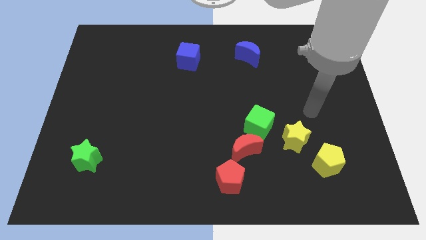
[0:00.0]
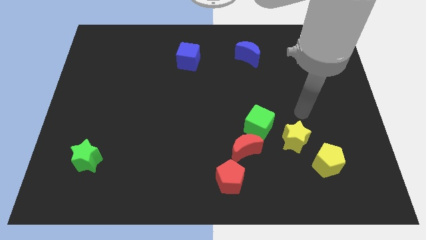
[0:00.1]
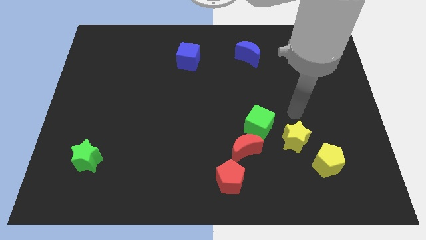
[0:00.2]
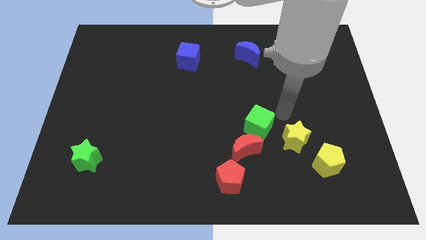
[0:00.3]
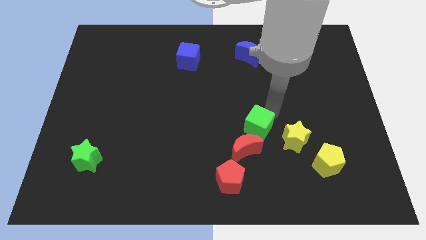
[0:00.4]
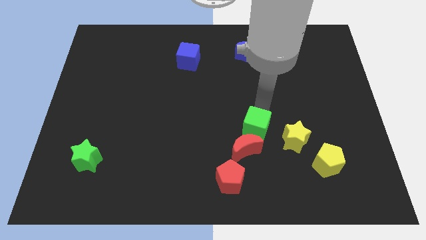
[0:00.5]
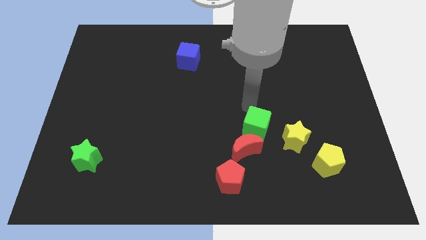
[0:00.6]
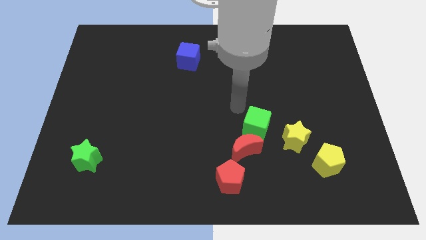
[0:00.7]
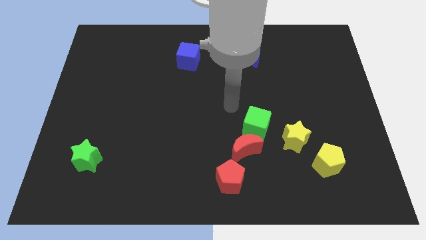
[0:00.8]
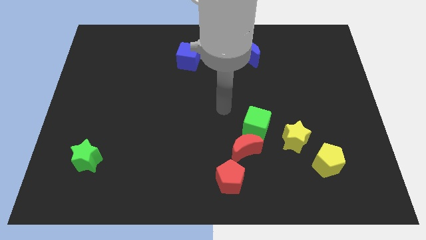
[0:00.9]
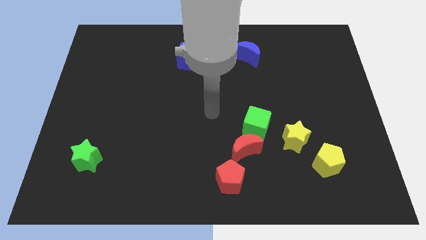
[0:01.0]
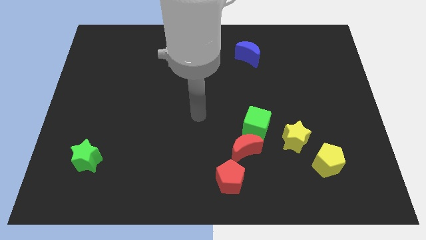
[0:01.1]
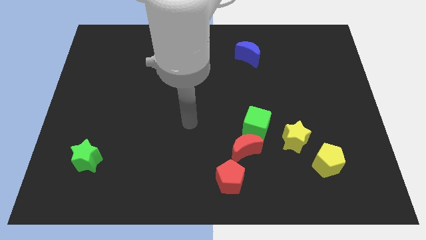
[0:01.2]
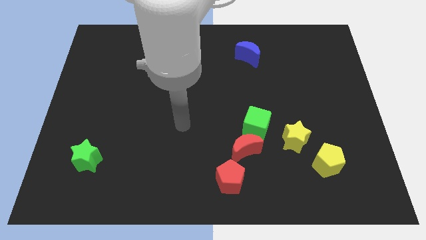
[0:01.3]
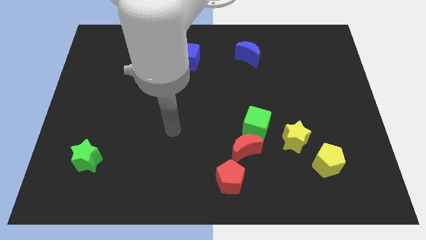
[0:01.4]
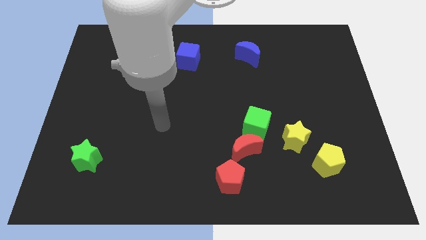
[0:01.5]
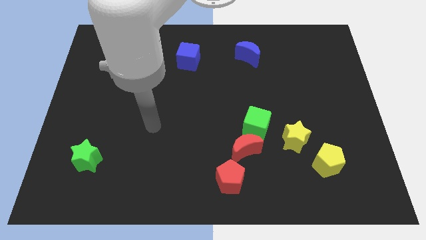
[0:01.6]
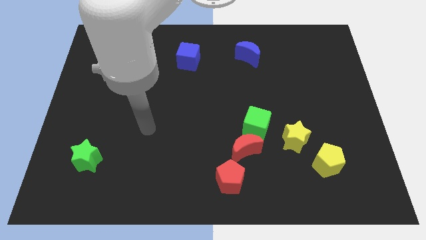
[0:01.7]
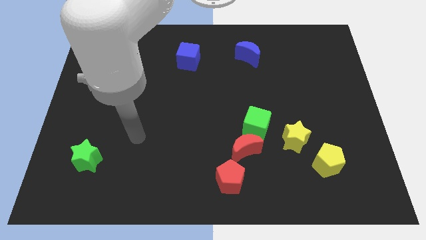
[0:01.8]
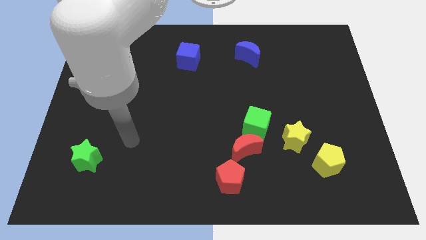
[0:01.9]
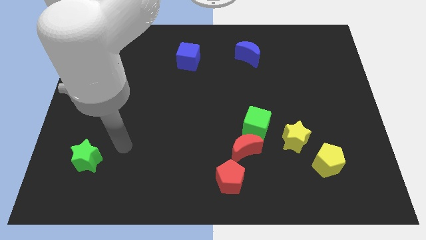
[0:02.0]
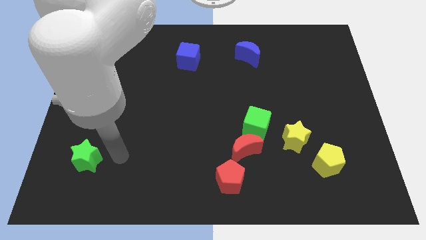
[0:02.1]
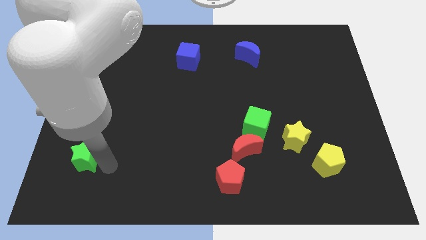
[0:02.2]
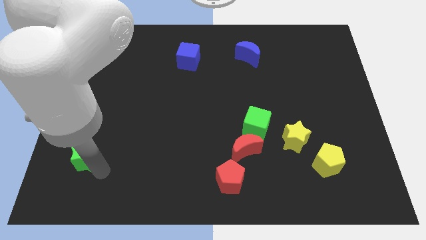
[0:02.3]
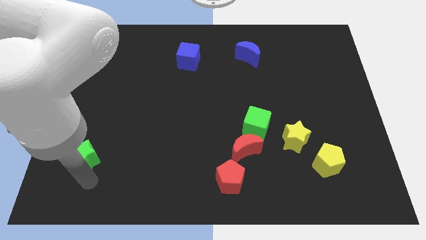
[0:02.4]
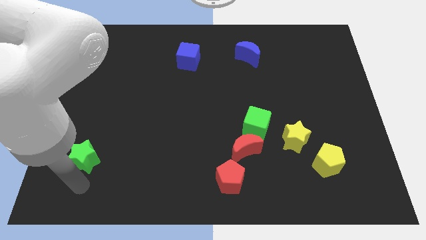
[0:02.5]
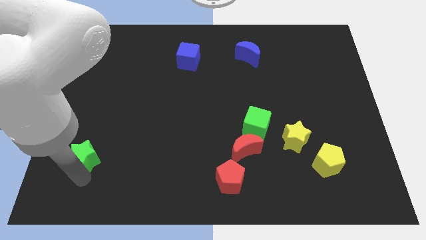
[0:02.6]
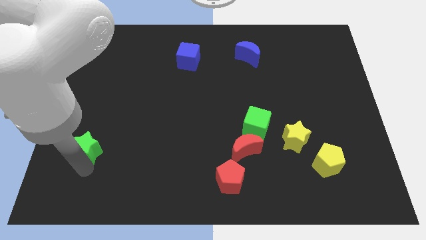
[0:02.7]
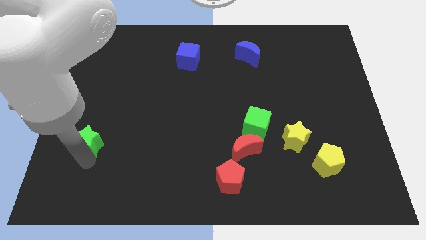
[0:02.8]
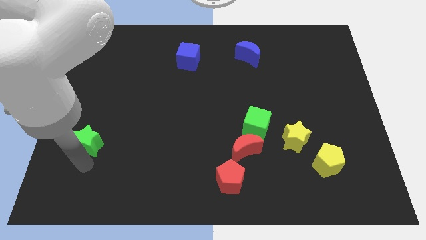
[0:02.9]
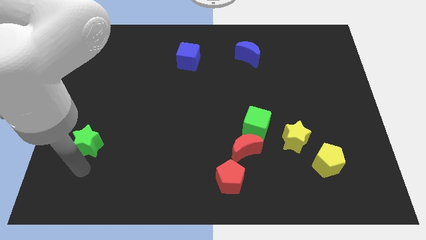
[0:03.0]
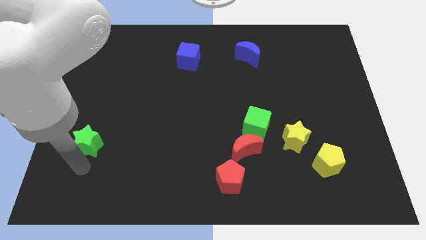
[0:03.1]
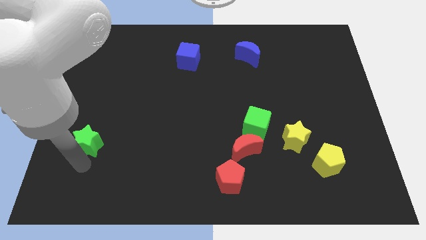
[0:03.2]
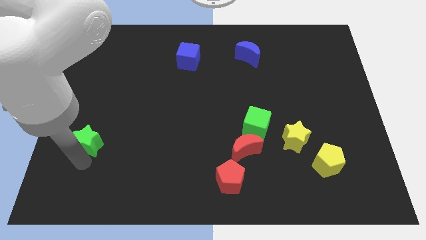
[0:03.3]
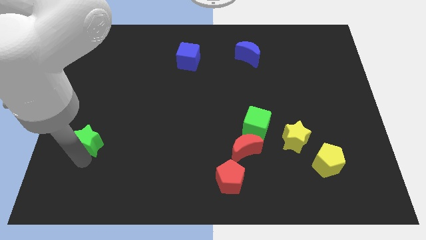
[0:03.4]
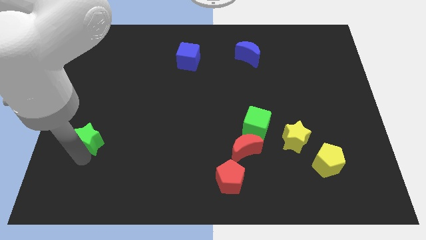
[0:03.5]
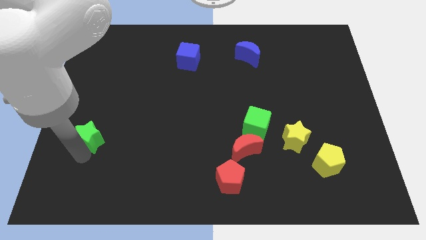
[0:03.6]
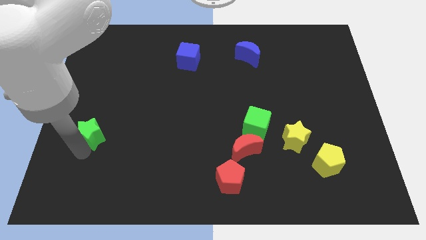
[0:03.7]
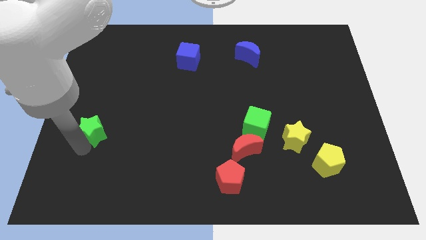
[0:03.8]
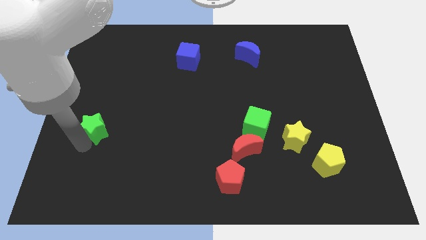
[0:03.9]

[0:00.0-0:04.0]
slide the green star up a bit

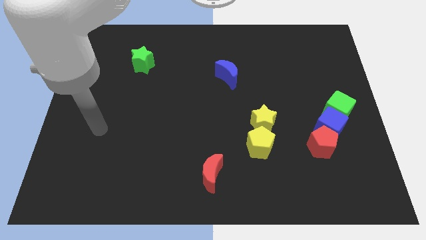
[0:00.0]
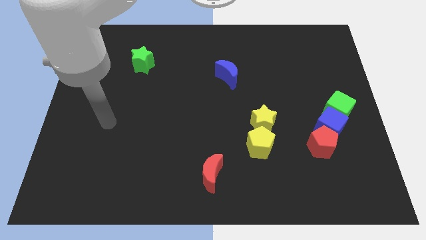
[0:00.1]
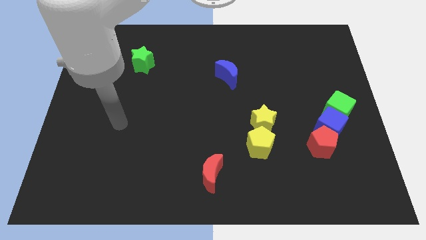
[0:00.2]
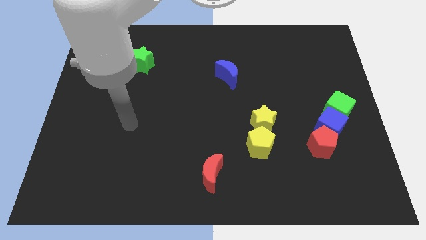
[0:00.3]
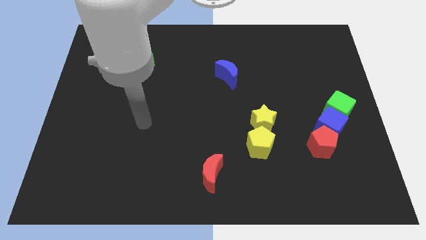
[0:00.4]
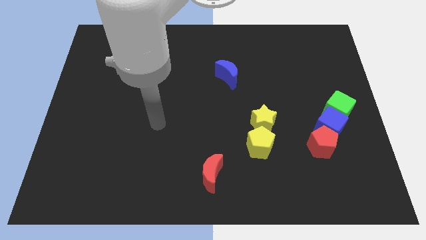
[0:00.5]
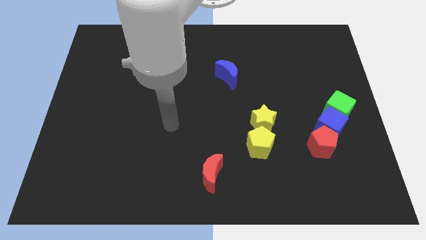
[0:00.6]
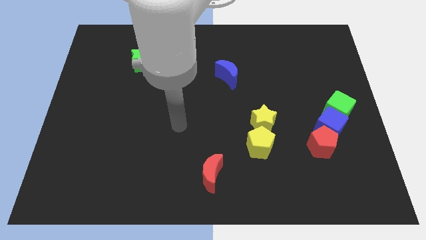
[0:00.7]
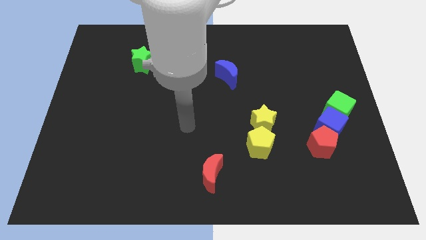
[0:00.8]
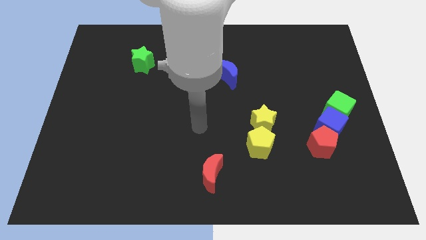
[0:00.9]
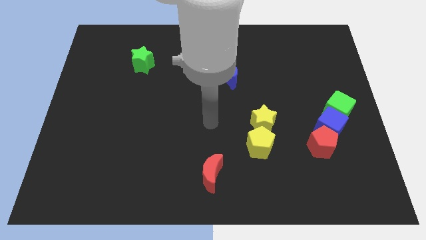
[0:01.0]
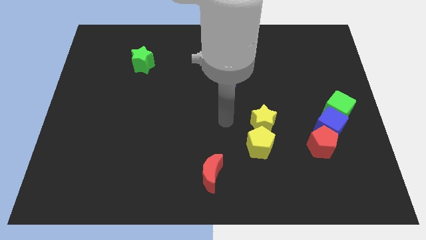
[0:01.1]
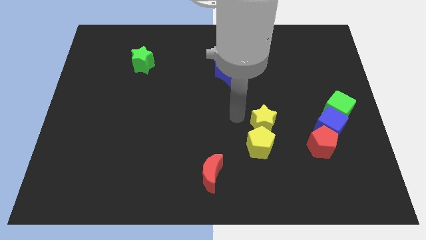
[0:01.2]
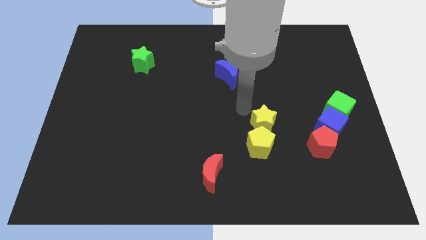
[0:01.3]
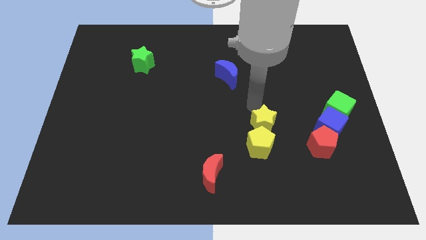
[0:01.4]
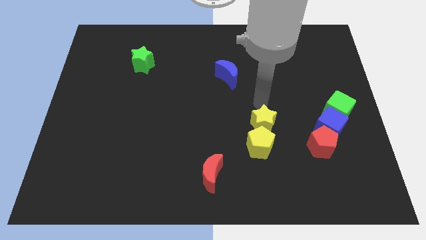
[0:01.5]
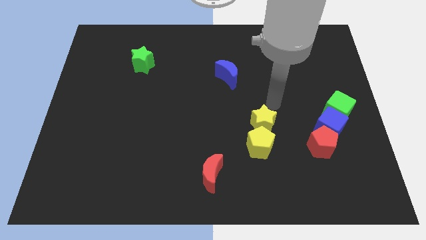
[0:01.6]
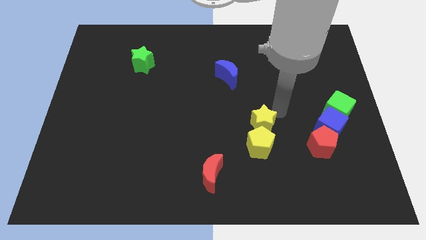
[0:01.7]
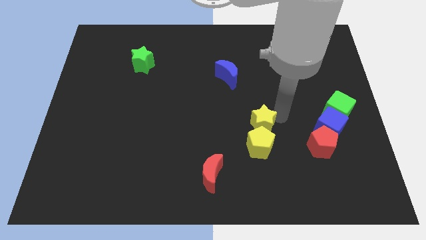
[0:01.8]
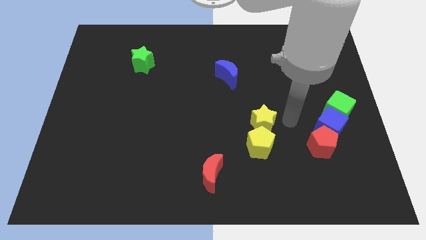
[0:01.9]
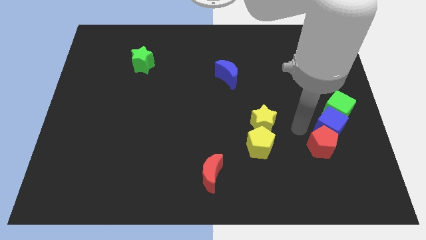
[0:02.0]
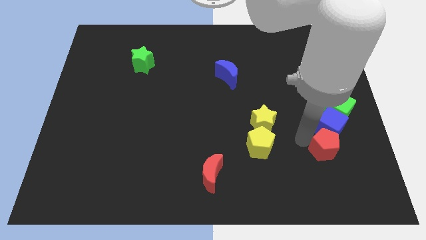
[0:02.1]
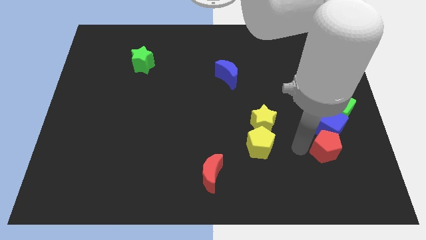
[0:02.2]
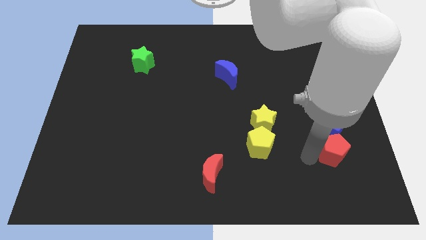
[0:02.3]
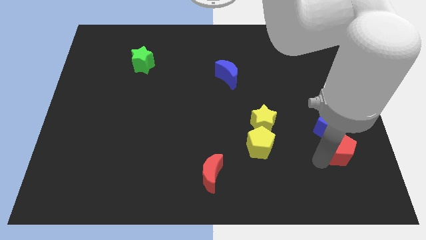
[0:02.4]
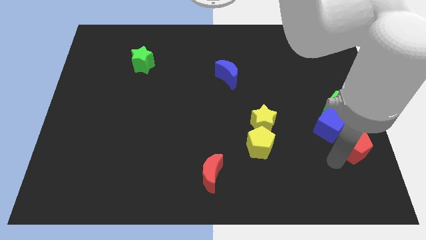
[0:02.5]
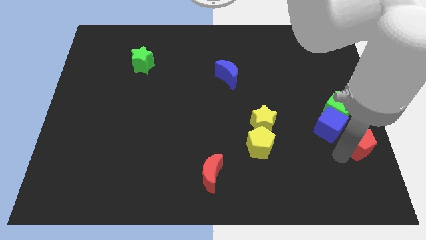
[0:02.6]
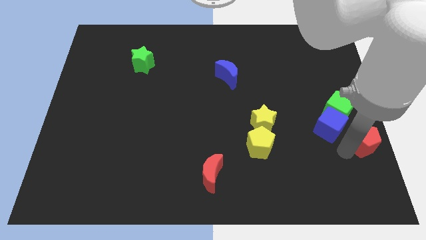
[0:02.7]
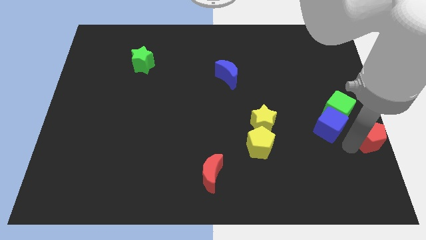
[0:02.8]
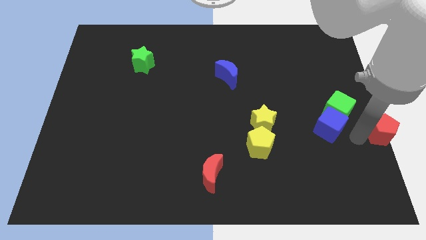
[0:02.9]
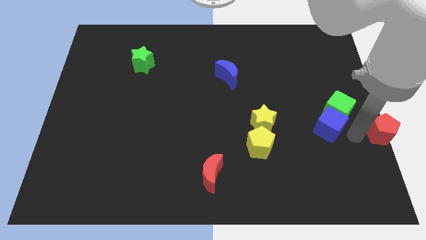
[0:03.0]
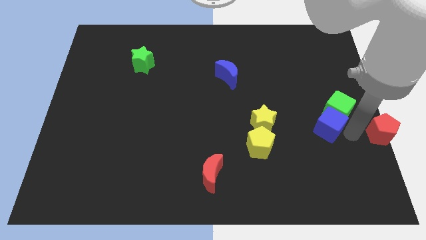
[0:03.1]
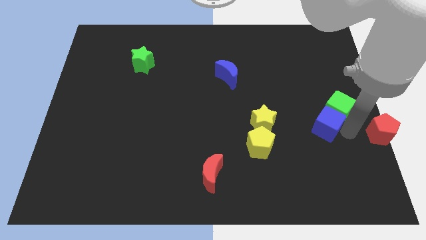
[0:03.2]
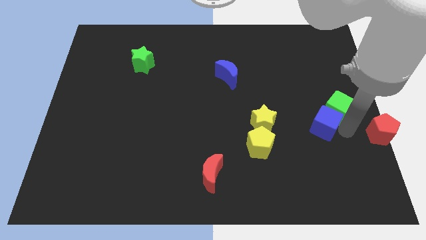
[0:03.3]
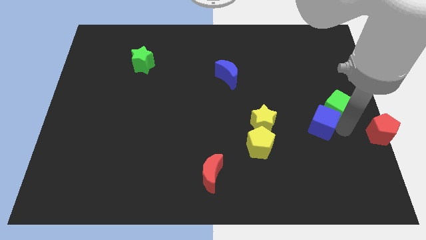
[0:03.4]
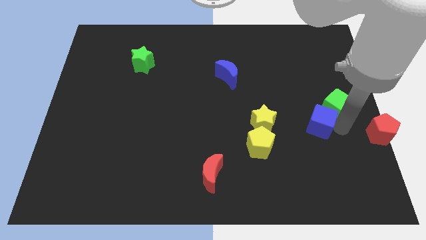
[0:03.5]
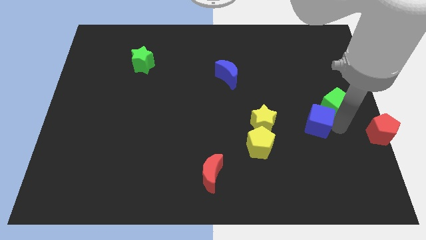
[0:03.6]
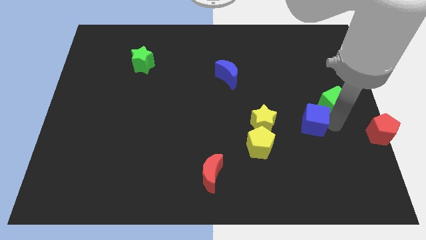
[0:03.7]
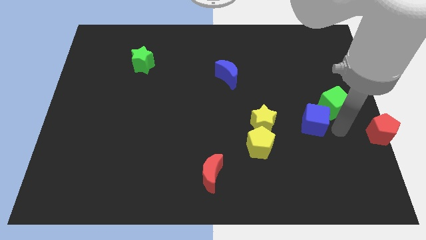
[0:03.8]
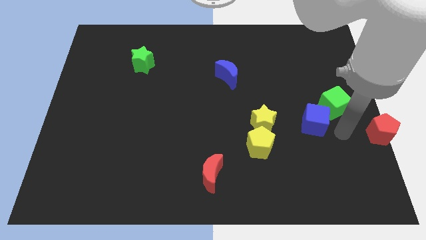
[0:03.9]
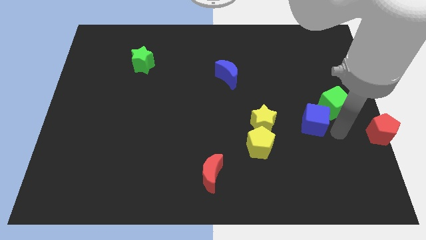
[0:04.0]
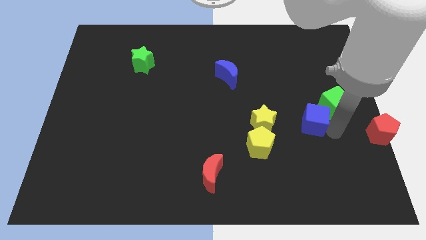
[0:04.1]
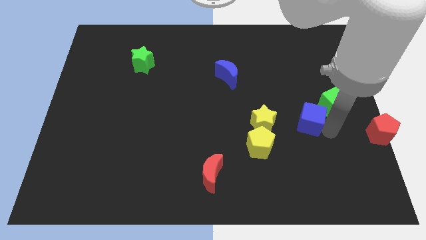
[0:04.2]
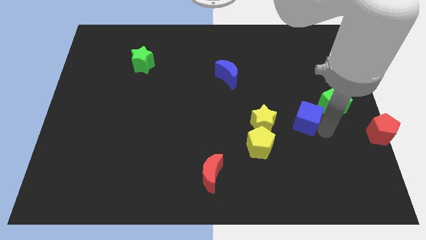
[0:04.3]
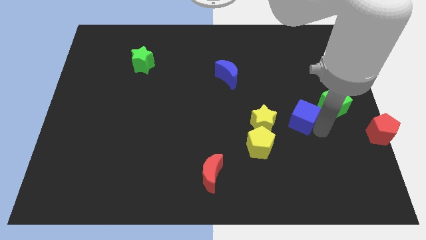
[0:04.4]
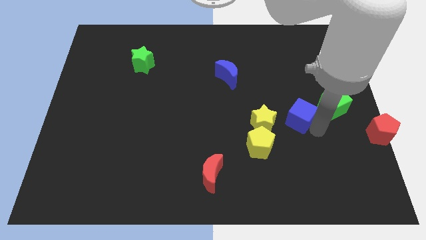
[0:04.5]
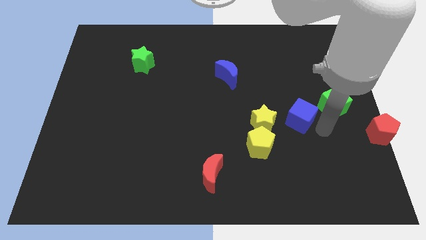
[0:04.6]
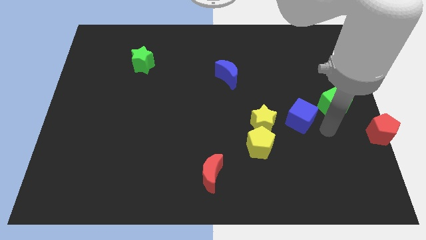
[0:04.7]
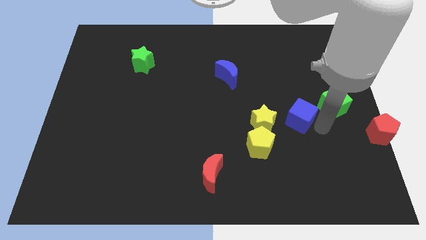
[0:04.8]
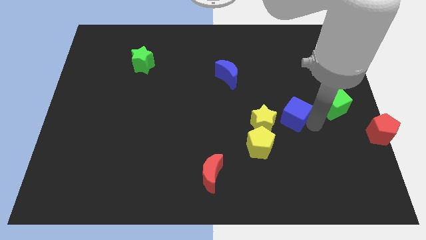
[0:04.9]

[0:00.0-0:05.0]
push the blue cube a little to the left
